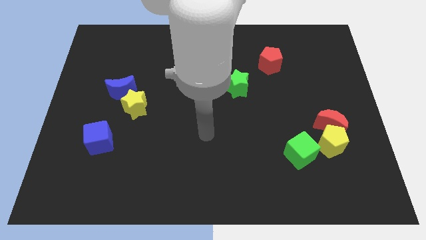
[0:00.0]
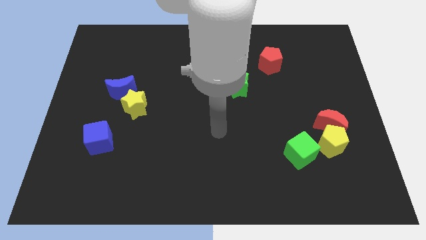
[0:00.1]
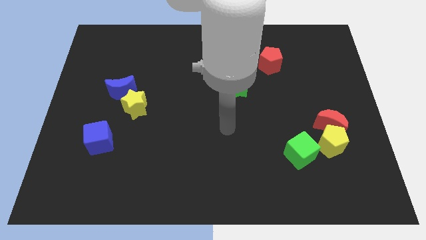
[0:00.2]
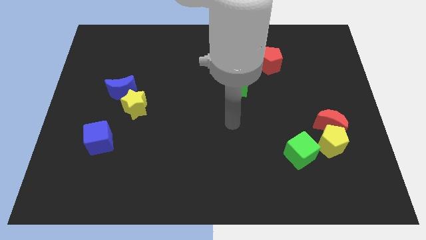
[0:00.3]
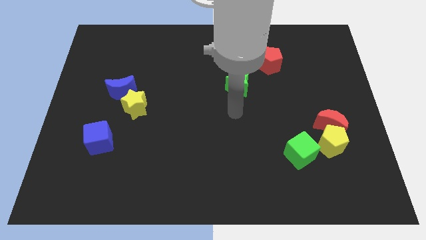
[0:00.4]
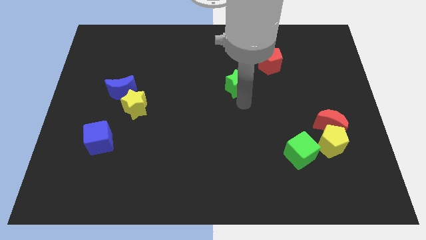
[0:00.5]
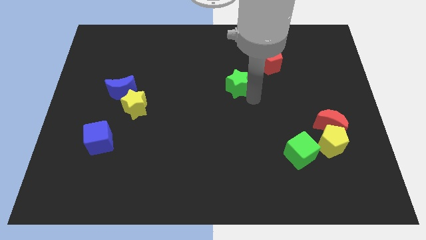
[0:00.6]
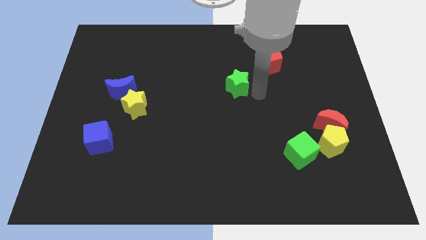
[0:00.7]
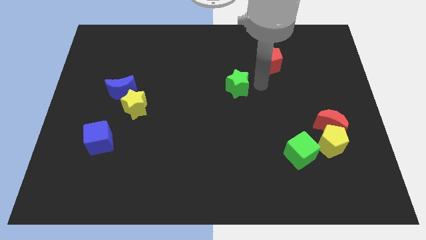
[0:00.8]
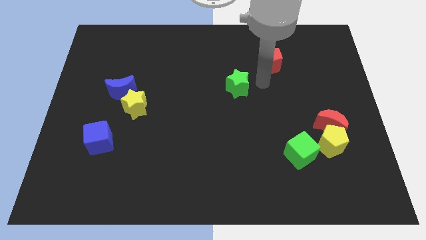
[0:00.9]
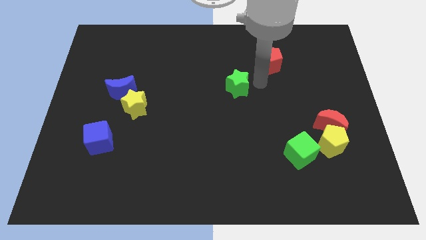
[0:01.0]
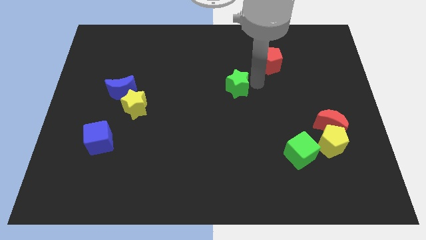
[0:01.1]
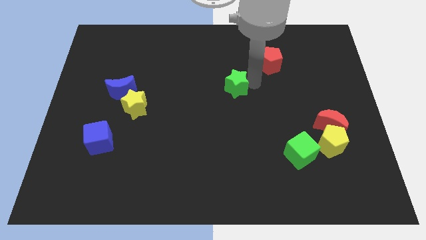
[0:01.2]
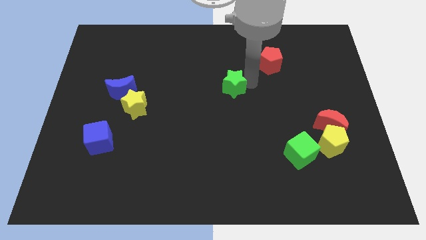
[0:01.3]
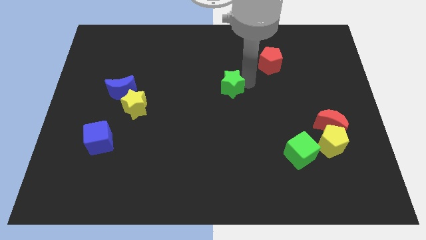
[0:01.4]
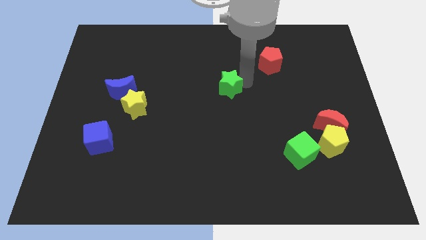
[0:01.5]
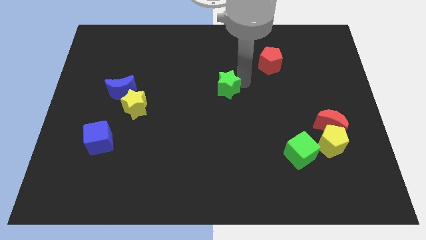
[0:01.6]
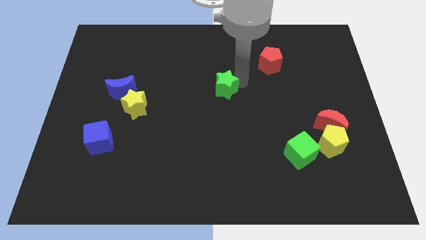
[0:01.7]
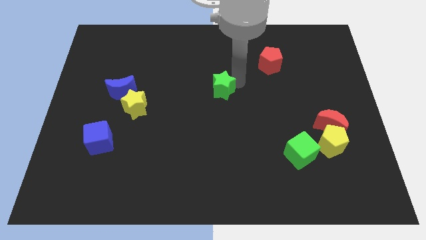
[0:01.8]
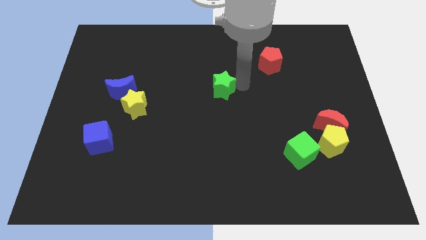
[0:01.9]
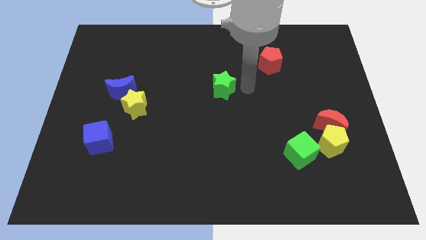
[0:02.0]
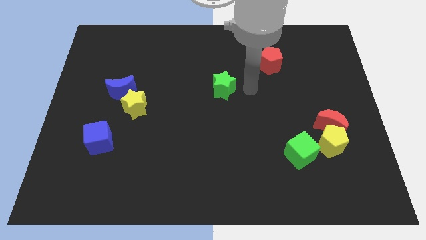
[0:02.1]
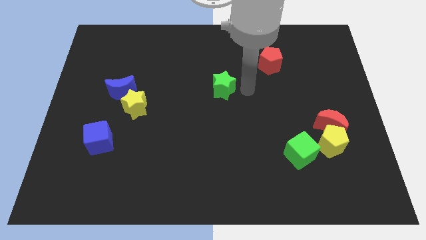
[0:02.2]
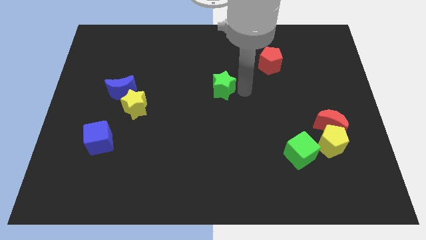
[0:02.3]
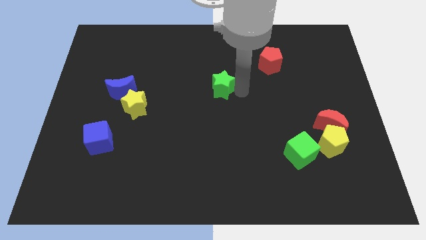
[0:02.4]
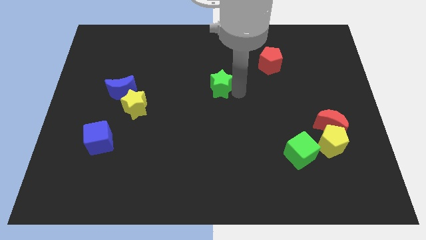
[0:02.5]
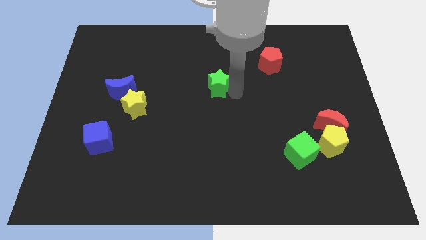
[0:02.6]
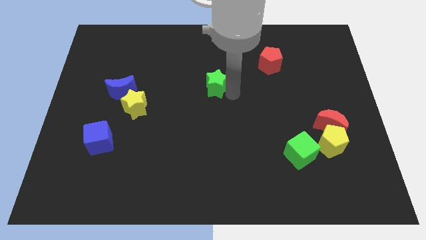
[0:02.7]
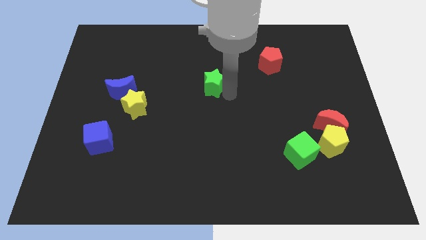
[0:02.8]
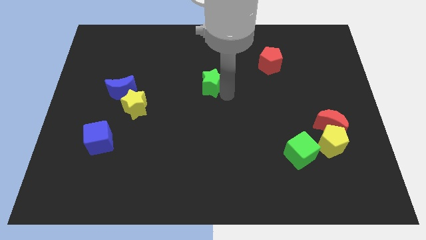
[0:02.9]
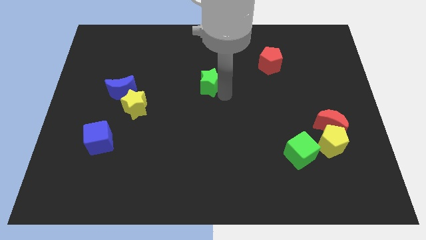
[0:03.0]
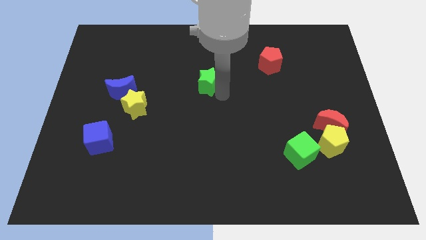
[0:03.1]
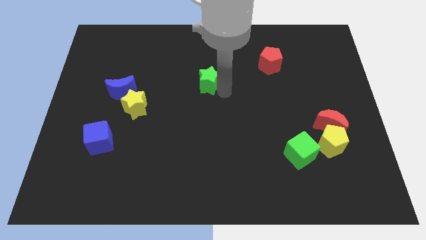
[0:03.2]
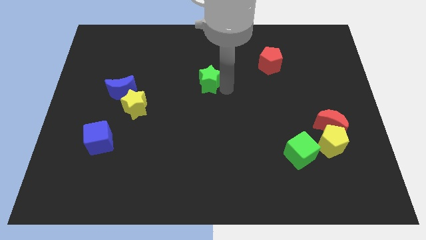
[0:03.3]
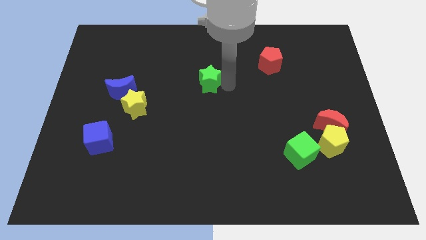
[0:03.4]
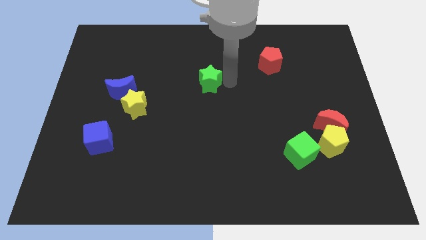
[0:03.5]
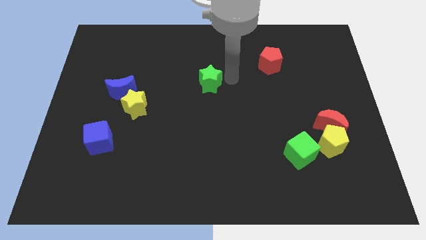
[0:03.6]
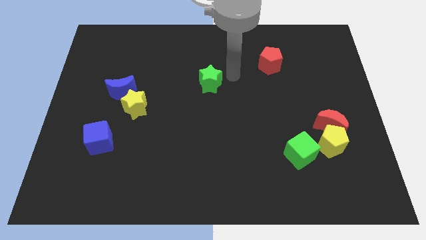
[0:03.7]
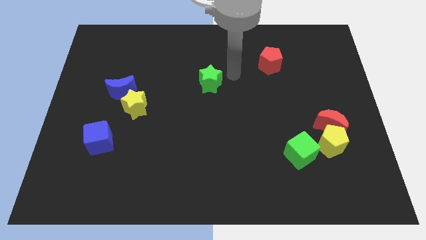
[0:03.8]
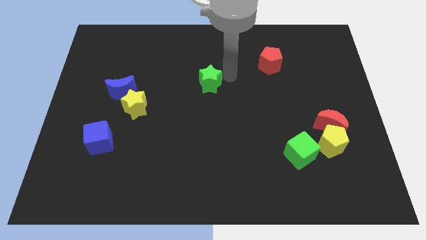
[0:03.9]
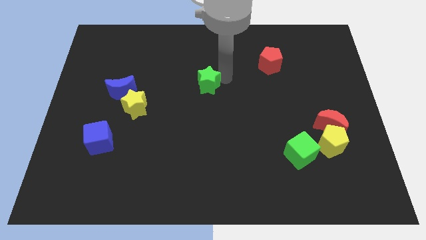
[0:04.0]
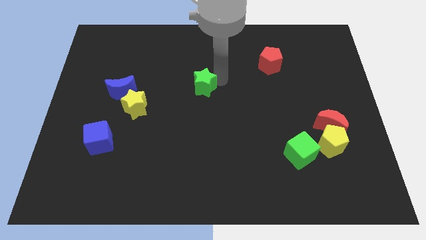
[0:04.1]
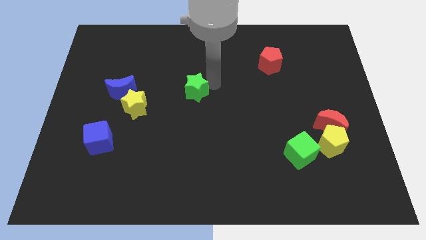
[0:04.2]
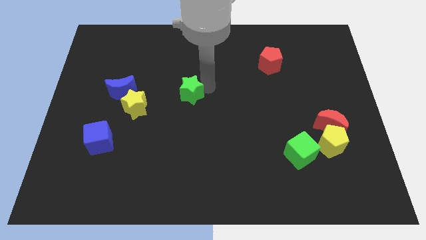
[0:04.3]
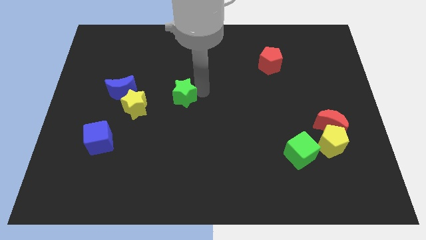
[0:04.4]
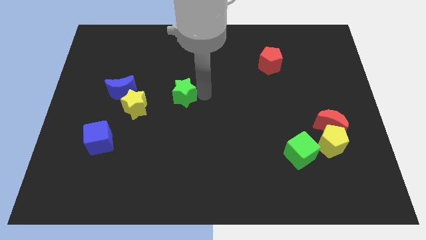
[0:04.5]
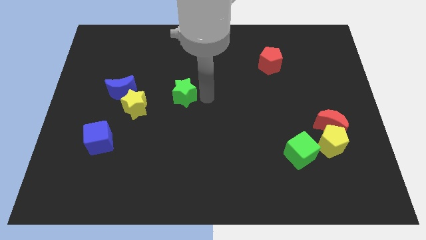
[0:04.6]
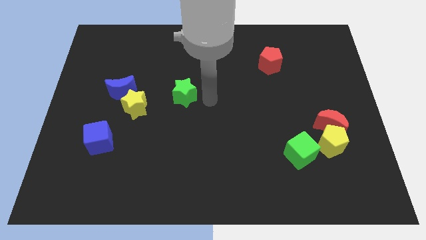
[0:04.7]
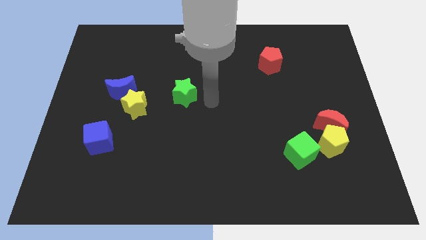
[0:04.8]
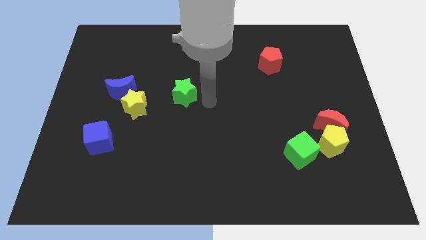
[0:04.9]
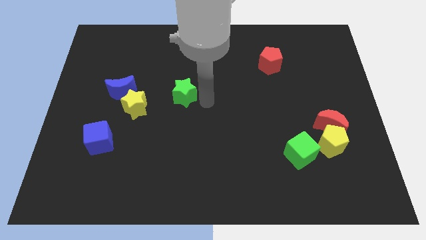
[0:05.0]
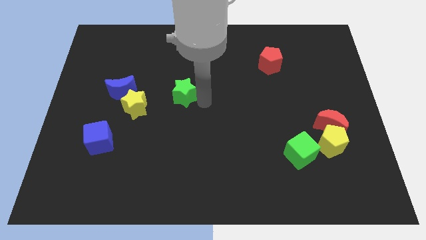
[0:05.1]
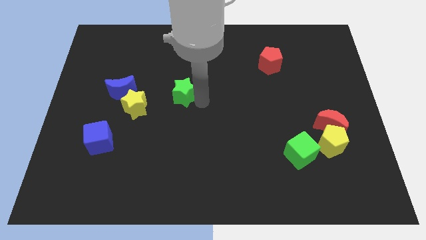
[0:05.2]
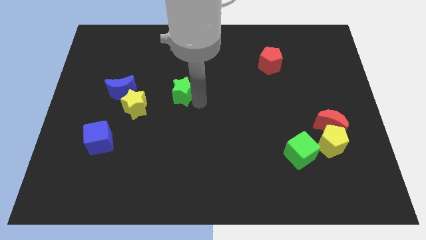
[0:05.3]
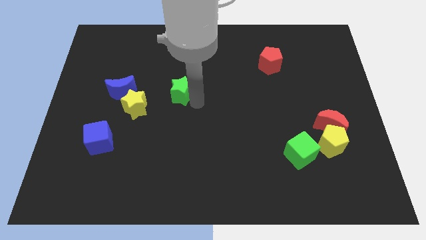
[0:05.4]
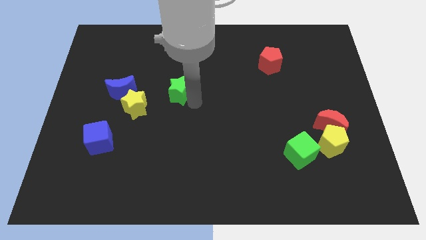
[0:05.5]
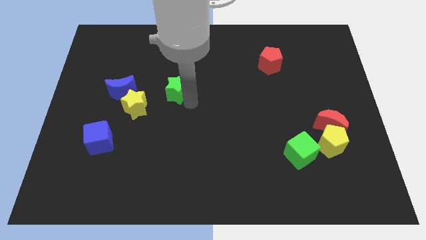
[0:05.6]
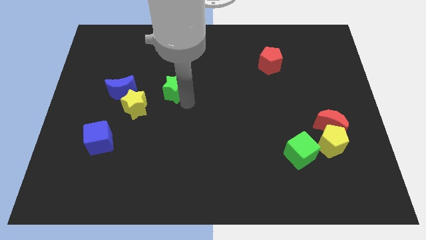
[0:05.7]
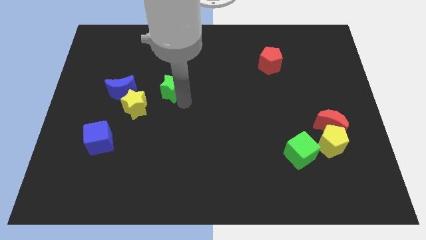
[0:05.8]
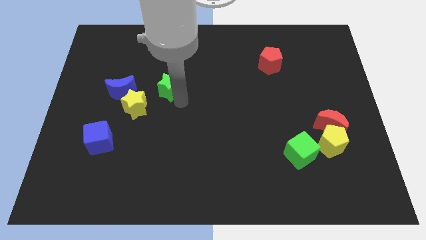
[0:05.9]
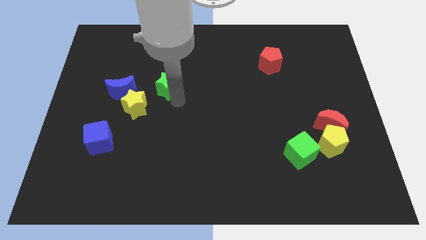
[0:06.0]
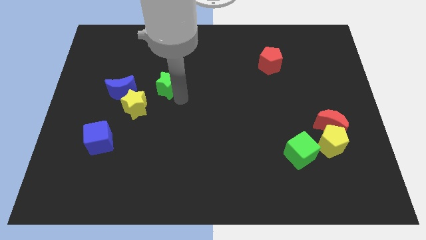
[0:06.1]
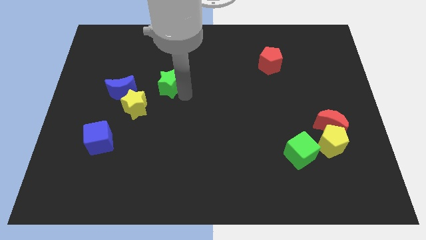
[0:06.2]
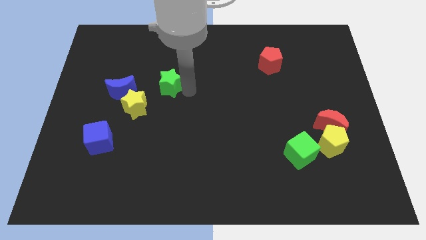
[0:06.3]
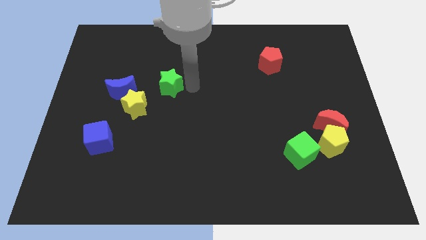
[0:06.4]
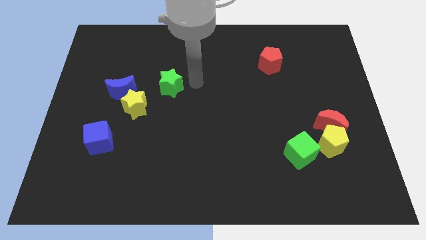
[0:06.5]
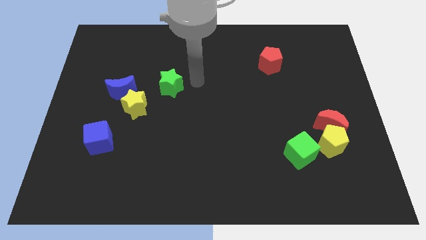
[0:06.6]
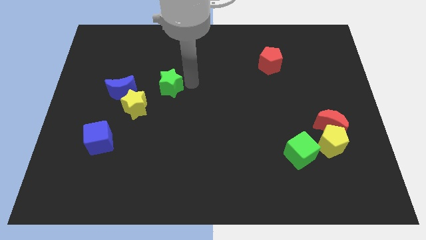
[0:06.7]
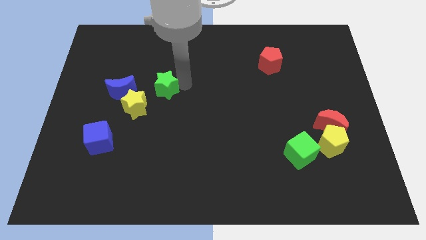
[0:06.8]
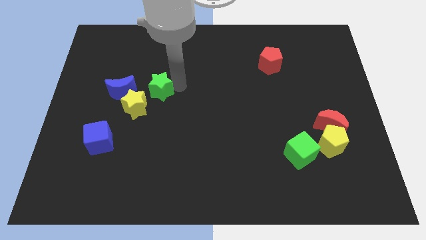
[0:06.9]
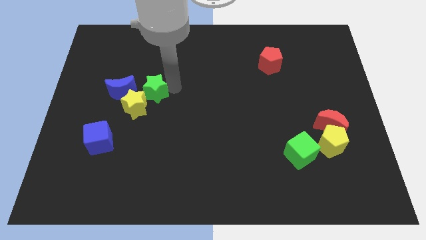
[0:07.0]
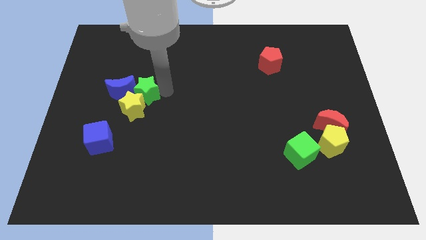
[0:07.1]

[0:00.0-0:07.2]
slide the green star close to the blue moon
